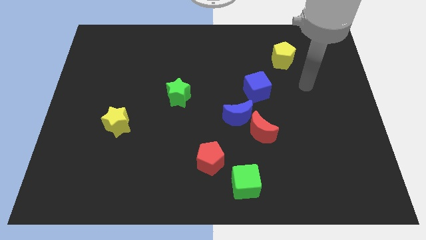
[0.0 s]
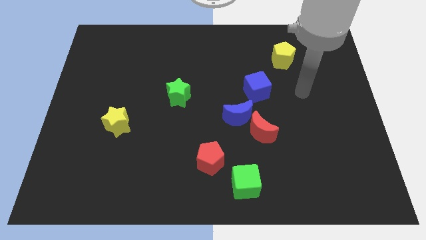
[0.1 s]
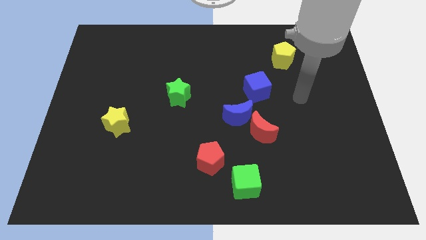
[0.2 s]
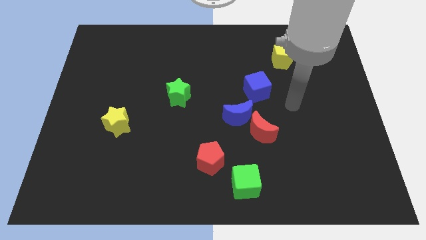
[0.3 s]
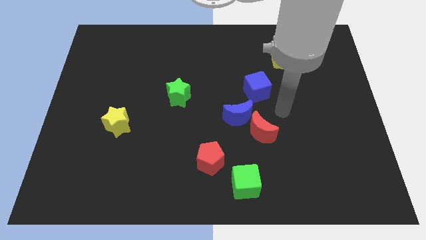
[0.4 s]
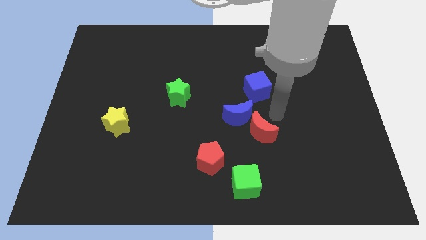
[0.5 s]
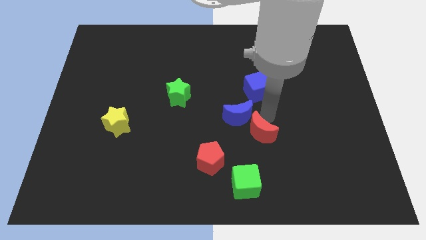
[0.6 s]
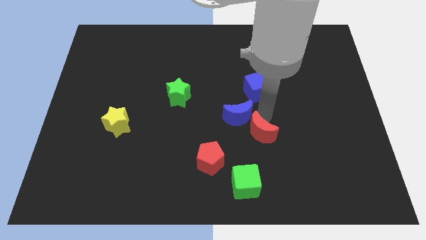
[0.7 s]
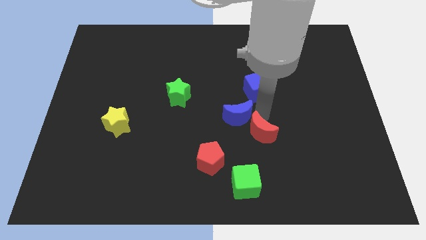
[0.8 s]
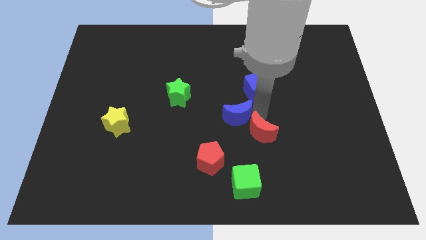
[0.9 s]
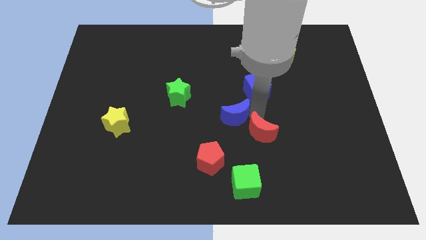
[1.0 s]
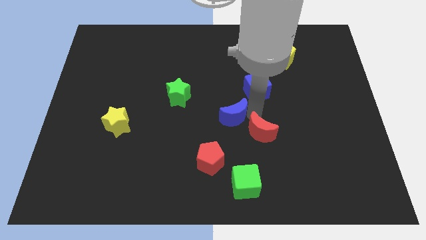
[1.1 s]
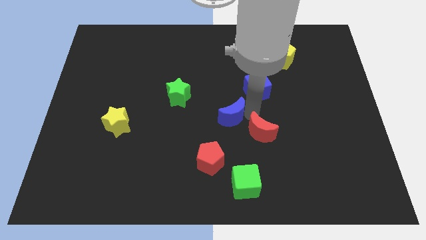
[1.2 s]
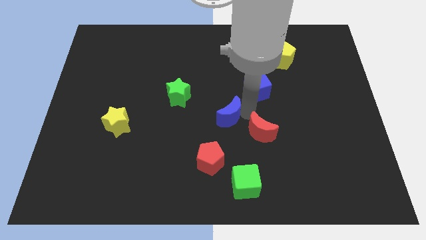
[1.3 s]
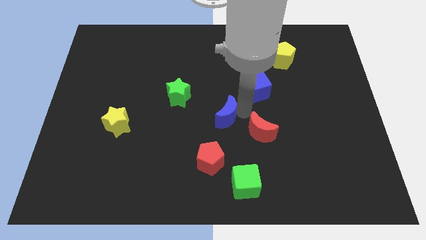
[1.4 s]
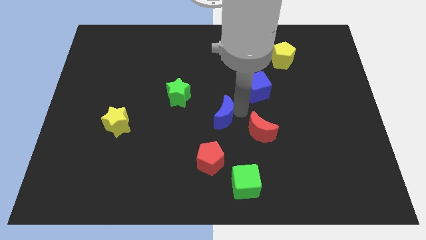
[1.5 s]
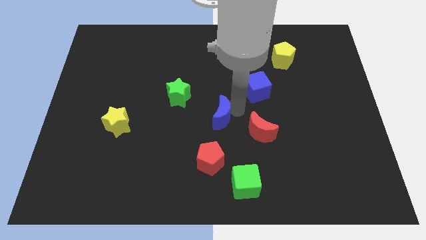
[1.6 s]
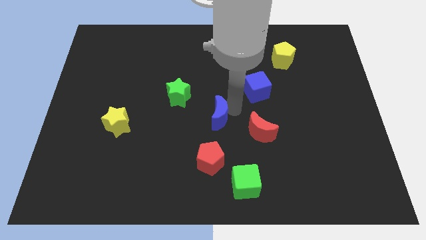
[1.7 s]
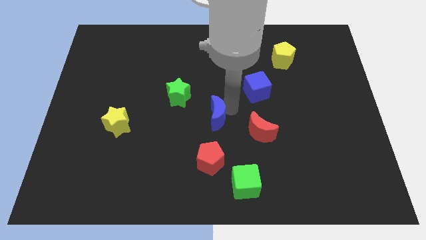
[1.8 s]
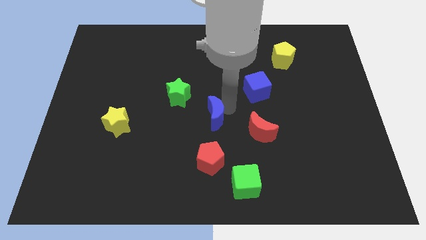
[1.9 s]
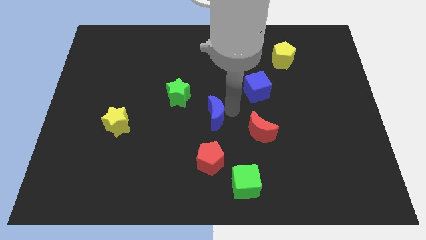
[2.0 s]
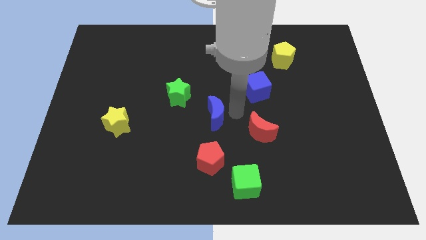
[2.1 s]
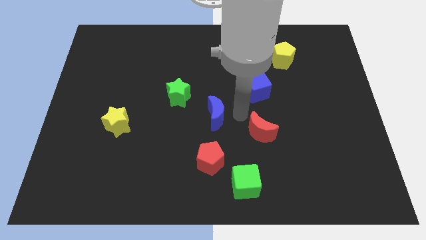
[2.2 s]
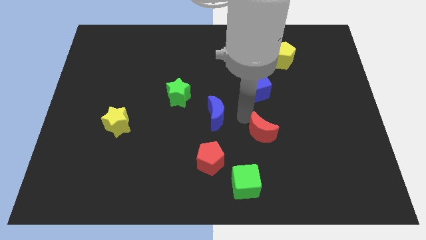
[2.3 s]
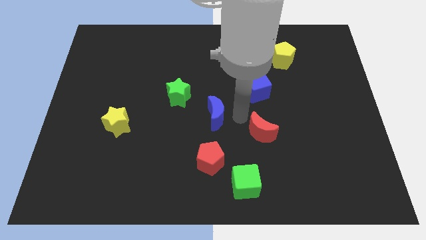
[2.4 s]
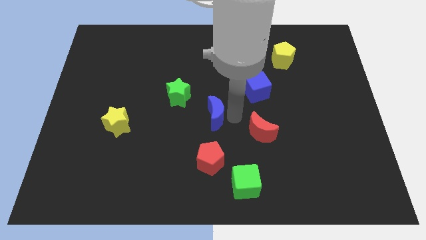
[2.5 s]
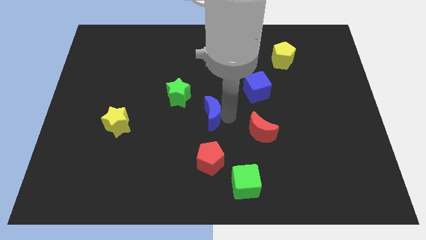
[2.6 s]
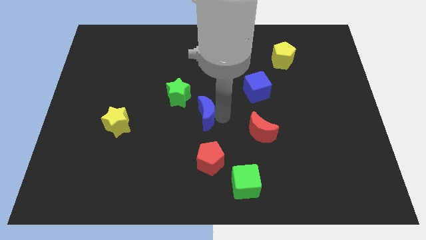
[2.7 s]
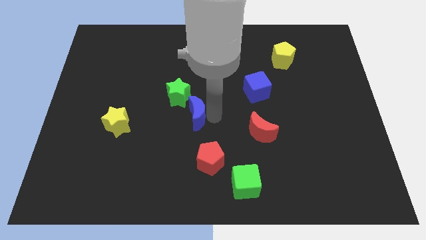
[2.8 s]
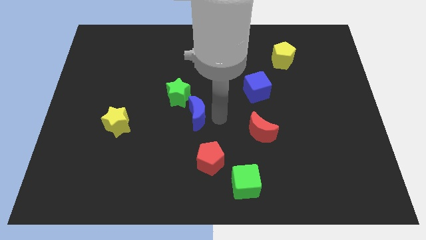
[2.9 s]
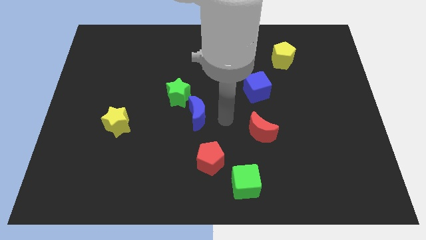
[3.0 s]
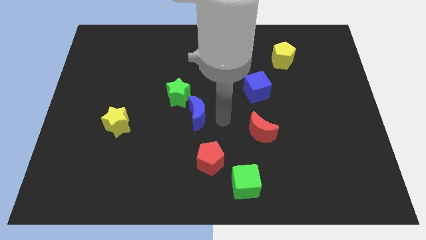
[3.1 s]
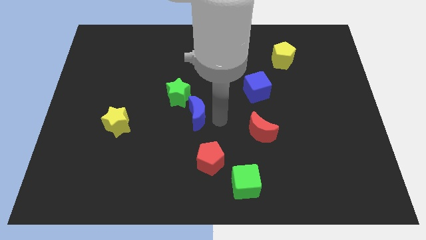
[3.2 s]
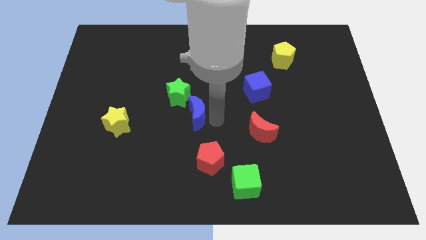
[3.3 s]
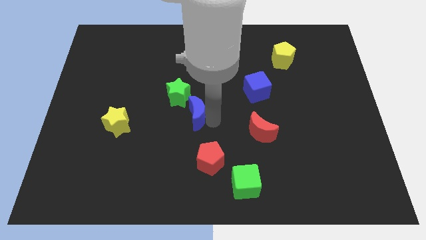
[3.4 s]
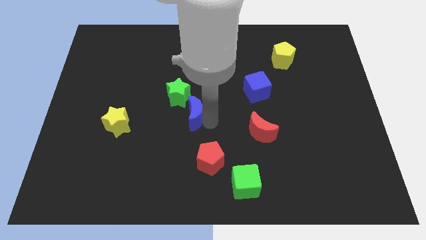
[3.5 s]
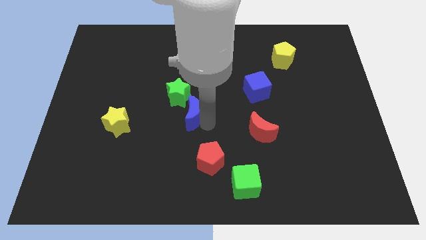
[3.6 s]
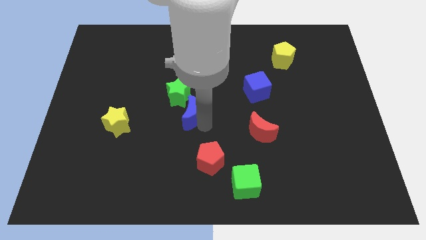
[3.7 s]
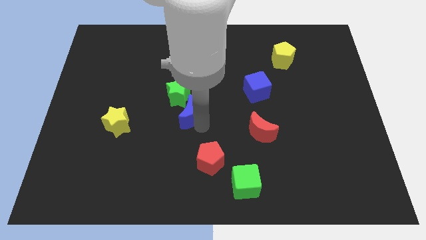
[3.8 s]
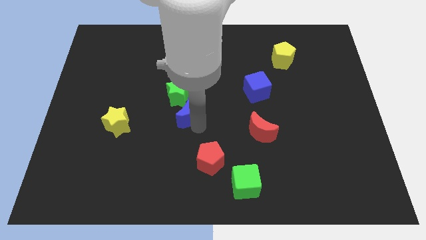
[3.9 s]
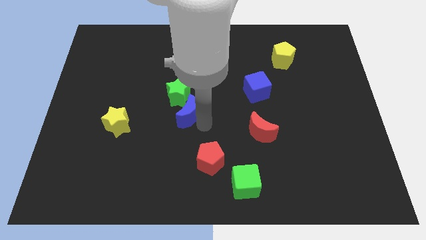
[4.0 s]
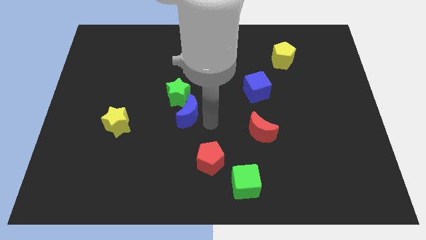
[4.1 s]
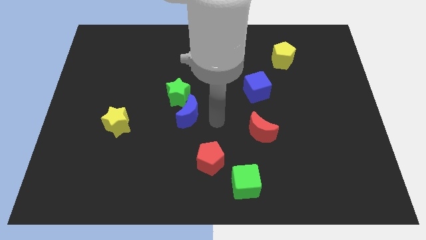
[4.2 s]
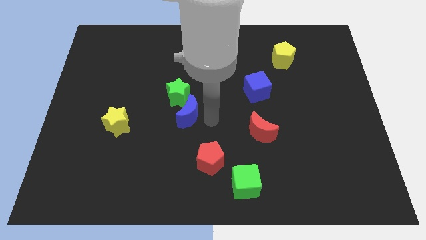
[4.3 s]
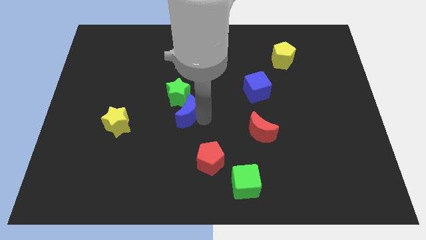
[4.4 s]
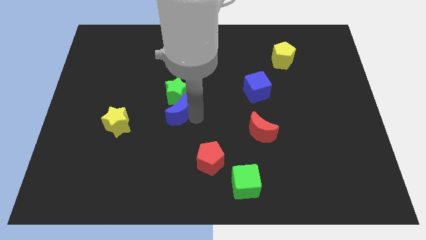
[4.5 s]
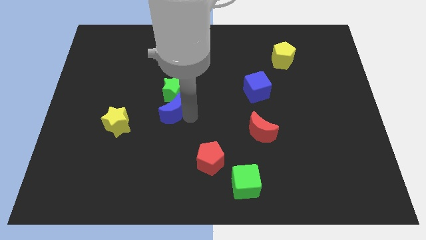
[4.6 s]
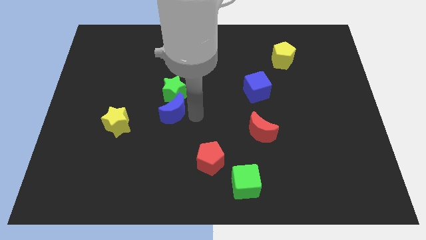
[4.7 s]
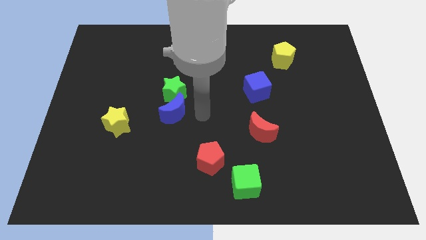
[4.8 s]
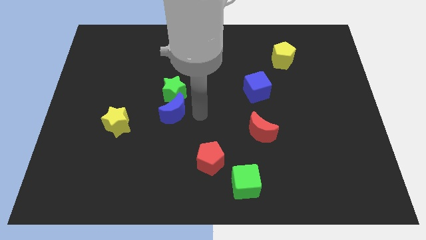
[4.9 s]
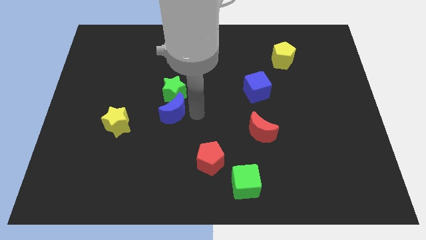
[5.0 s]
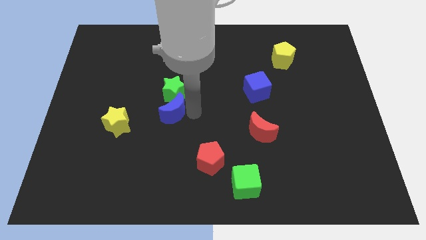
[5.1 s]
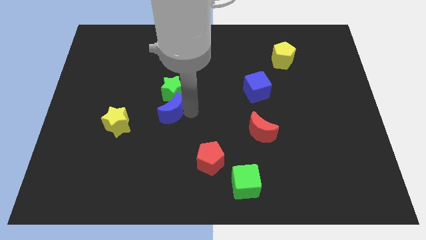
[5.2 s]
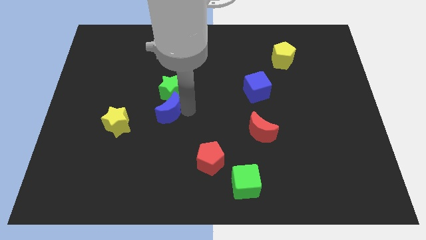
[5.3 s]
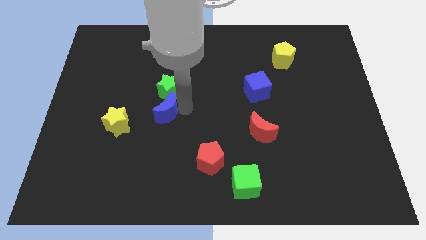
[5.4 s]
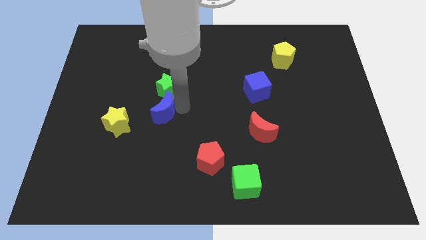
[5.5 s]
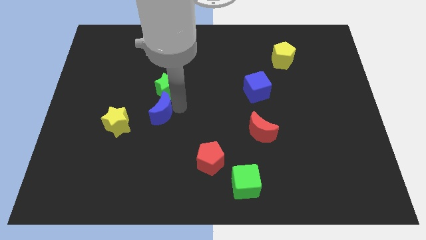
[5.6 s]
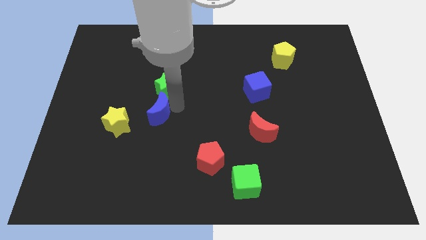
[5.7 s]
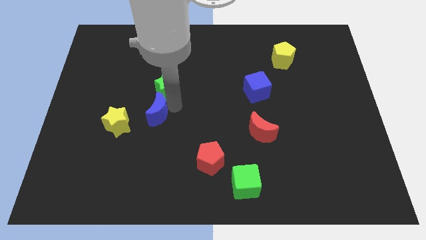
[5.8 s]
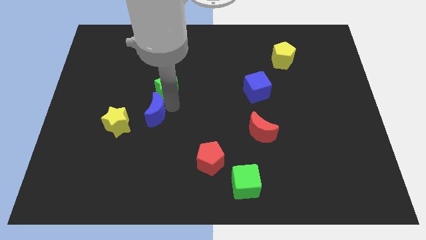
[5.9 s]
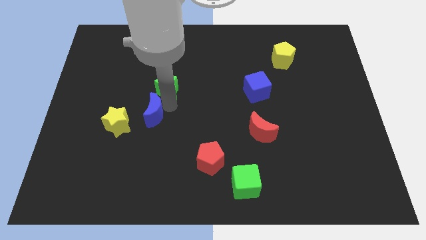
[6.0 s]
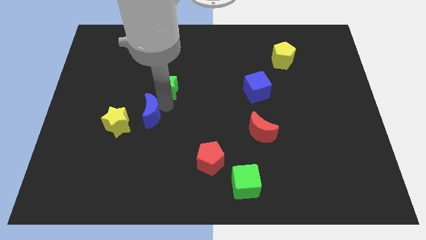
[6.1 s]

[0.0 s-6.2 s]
move the blue moon left

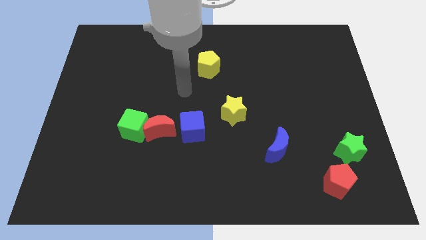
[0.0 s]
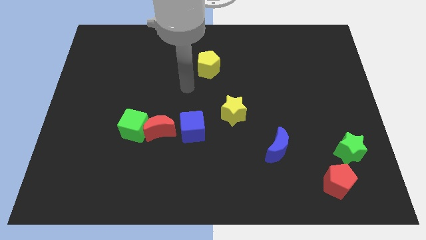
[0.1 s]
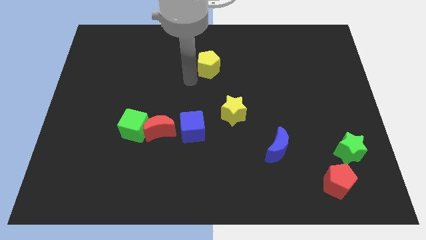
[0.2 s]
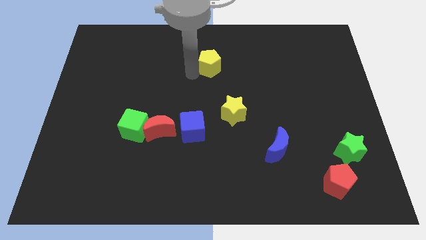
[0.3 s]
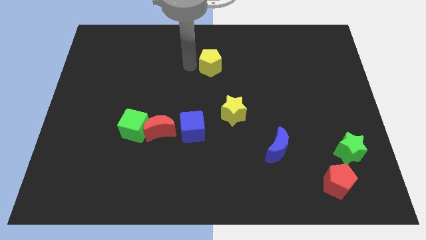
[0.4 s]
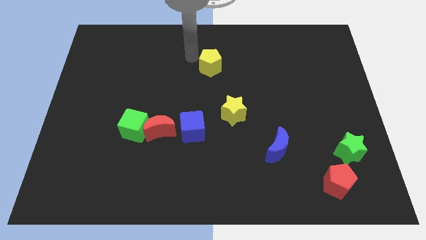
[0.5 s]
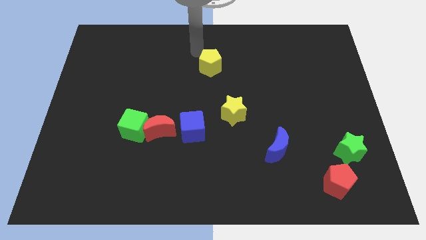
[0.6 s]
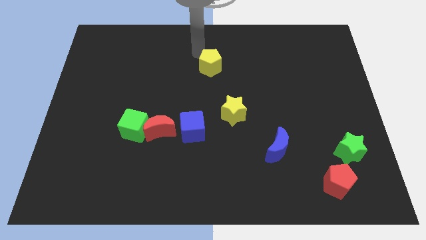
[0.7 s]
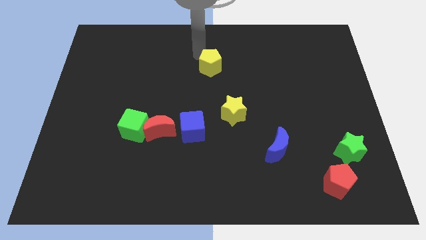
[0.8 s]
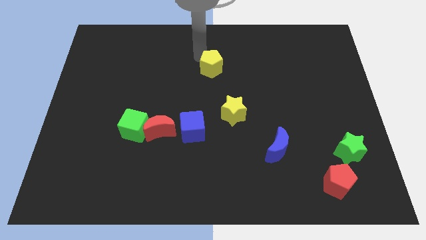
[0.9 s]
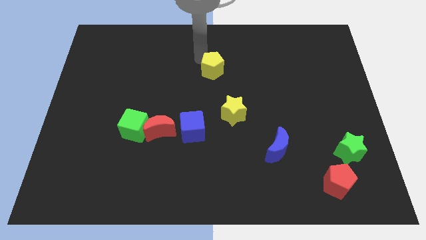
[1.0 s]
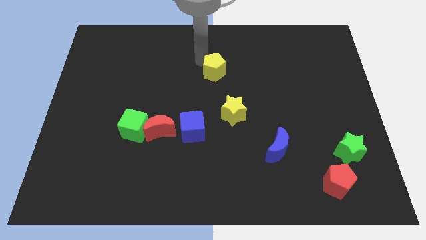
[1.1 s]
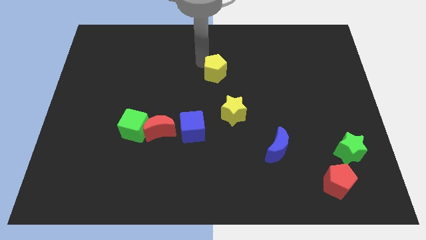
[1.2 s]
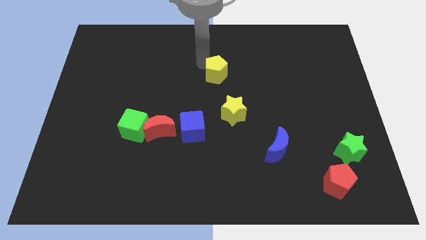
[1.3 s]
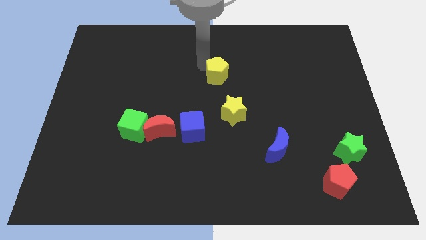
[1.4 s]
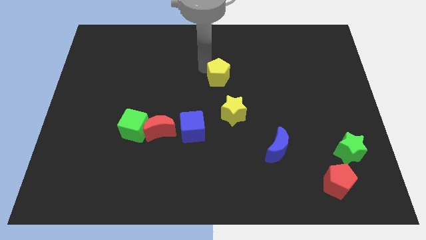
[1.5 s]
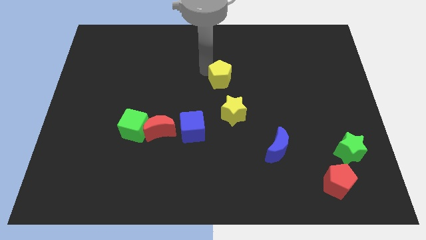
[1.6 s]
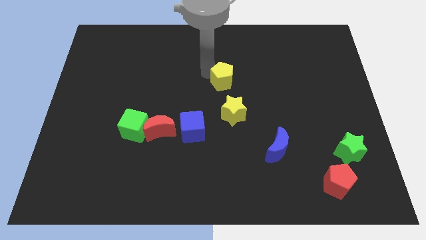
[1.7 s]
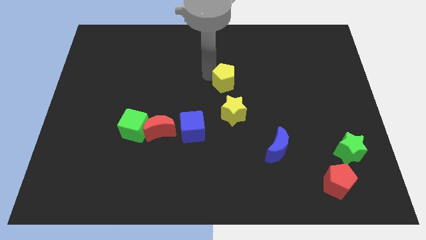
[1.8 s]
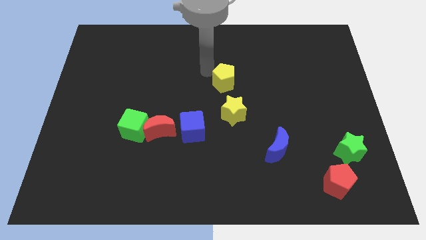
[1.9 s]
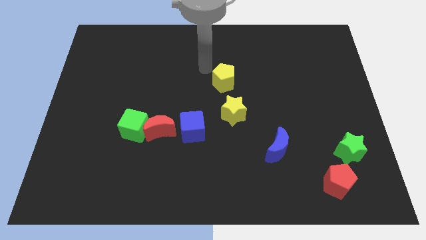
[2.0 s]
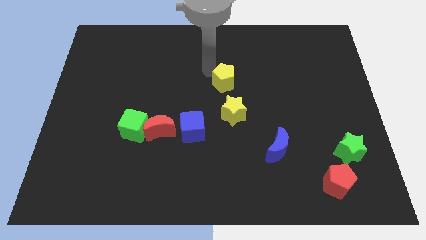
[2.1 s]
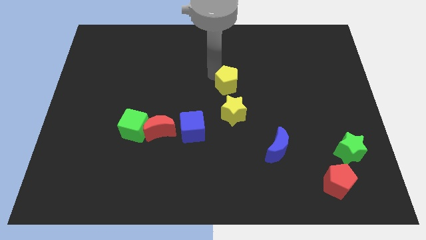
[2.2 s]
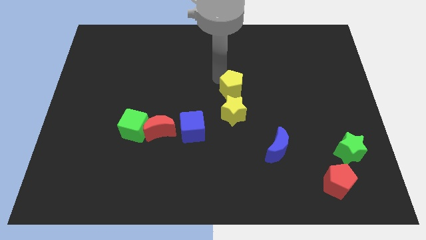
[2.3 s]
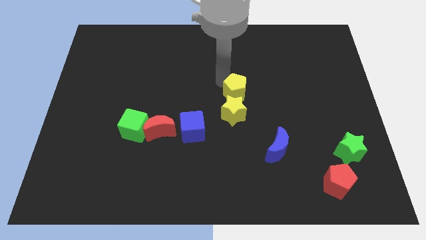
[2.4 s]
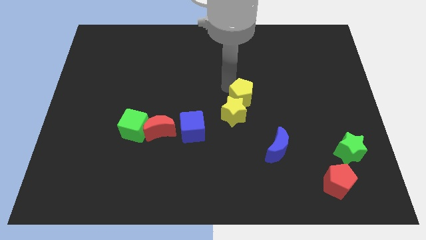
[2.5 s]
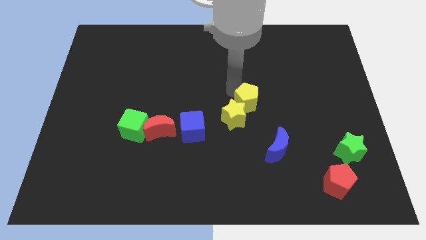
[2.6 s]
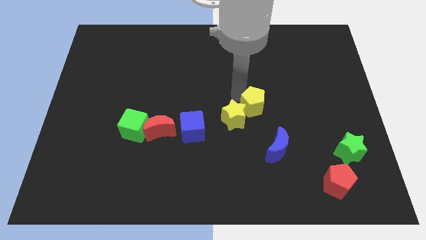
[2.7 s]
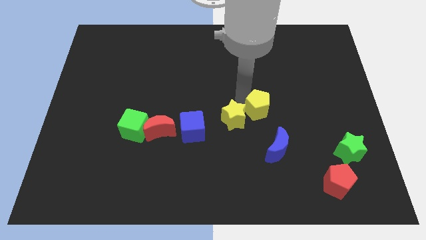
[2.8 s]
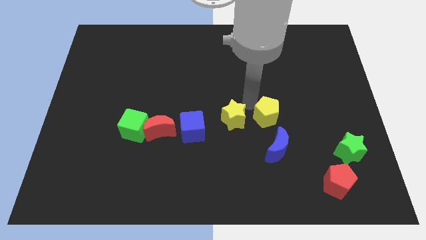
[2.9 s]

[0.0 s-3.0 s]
push the yellow pentagon down and right
